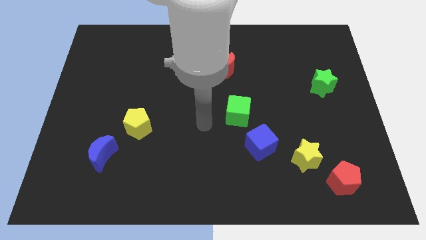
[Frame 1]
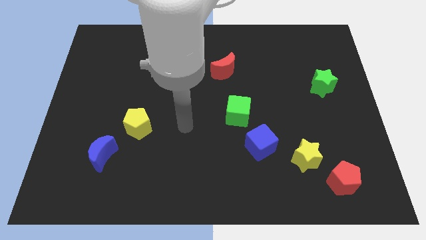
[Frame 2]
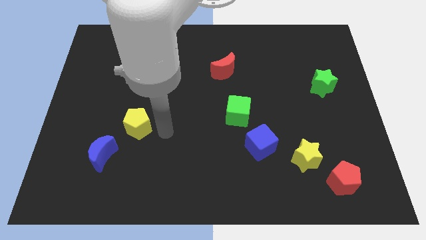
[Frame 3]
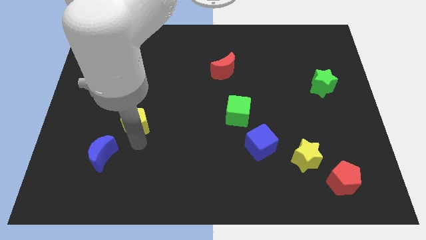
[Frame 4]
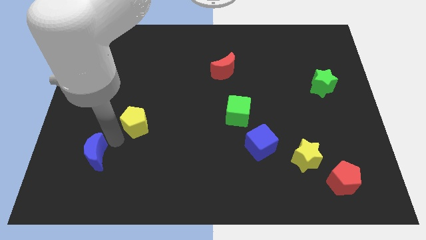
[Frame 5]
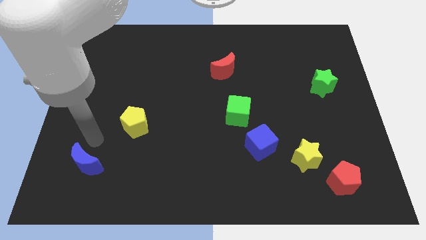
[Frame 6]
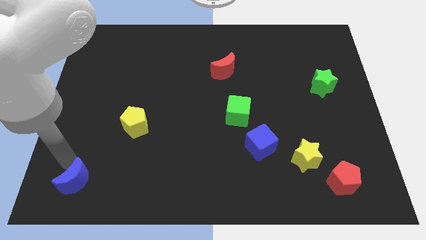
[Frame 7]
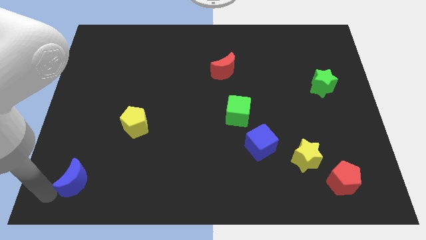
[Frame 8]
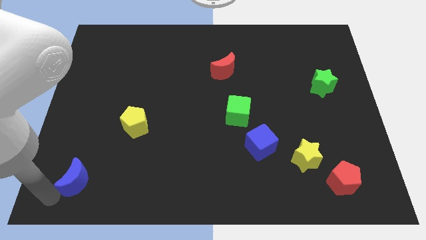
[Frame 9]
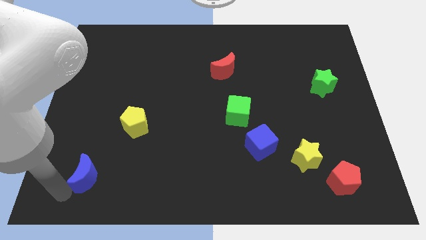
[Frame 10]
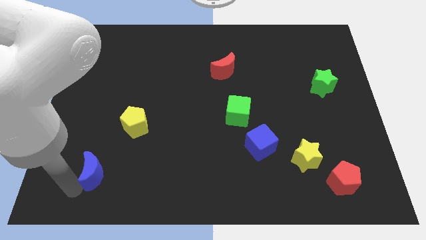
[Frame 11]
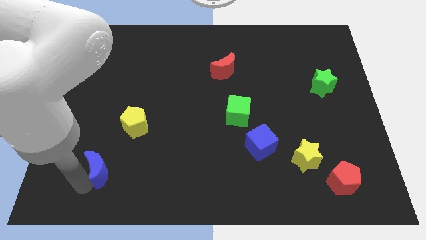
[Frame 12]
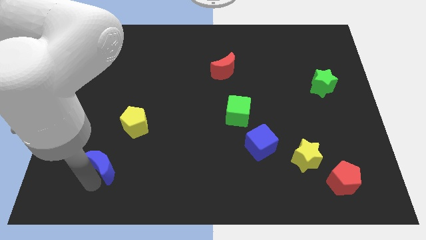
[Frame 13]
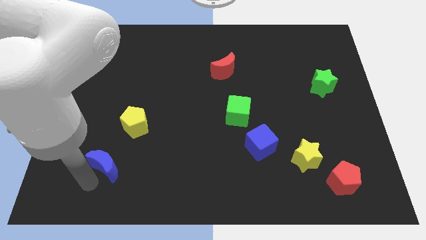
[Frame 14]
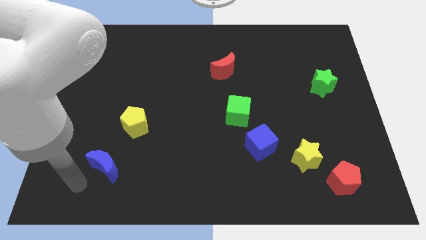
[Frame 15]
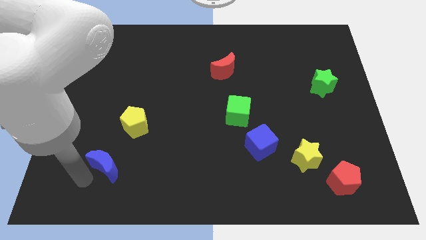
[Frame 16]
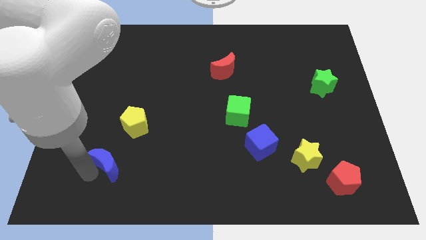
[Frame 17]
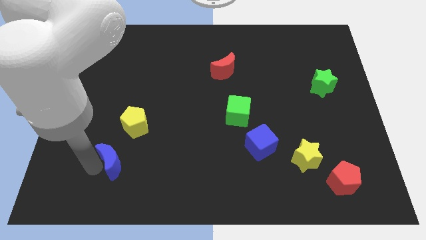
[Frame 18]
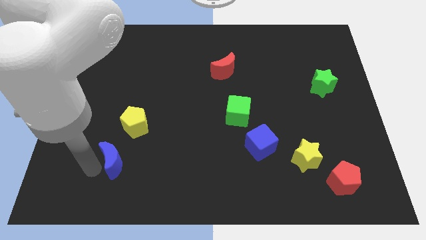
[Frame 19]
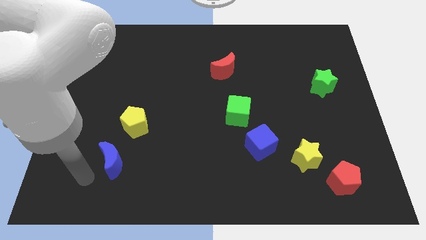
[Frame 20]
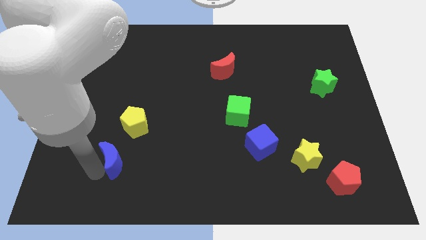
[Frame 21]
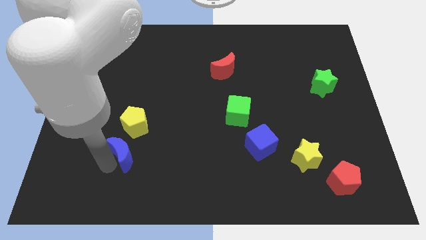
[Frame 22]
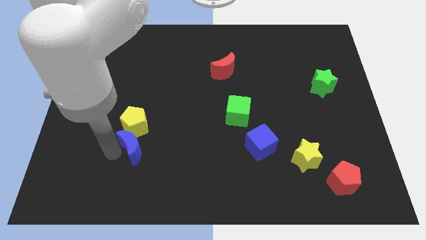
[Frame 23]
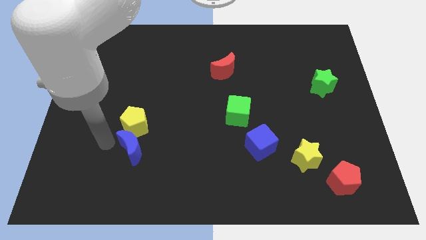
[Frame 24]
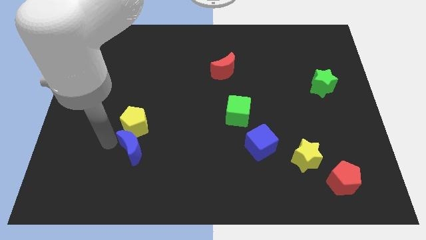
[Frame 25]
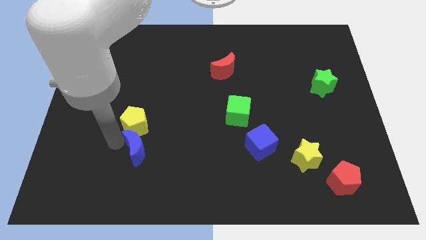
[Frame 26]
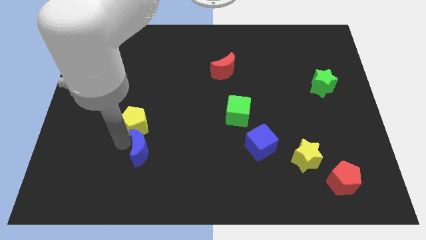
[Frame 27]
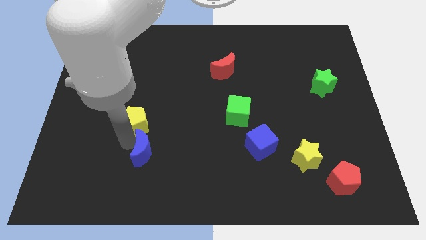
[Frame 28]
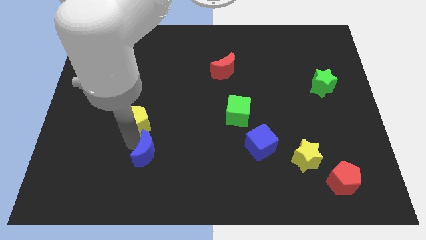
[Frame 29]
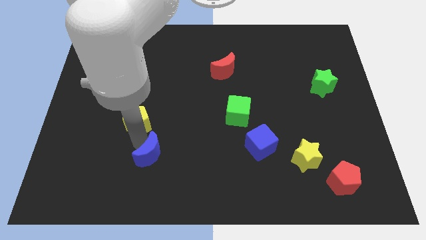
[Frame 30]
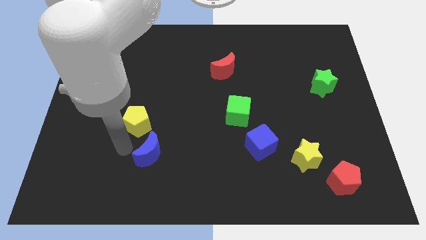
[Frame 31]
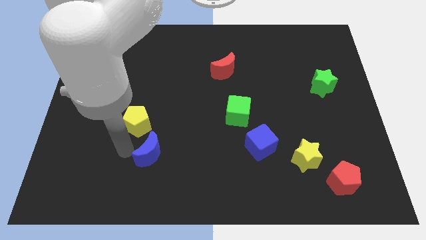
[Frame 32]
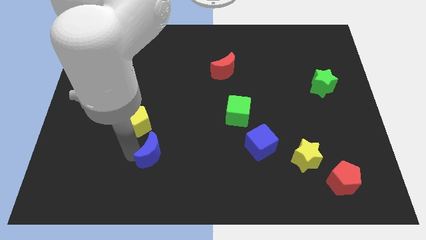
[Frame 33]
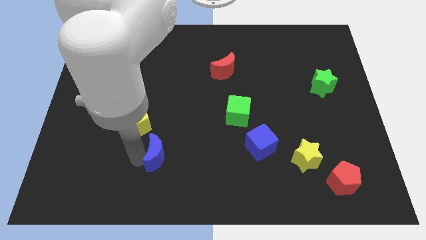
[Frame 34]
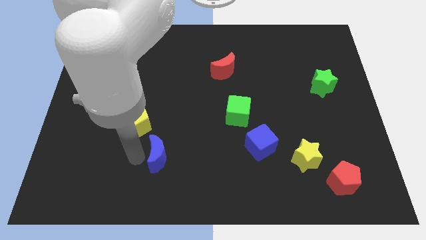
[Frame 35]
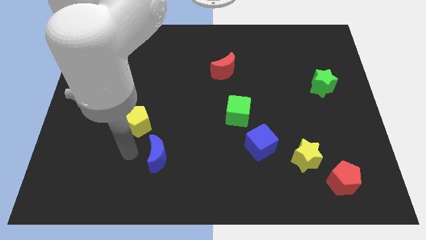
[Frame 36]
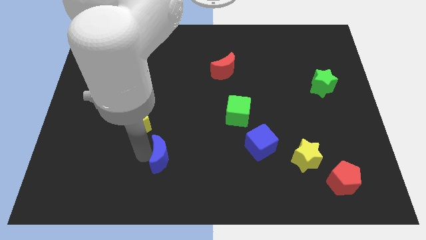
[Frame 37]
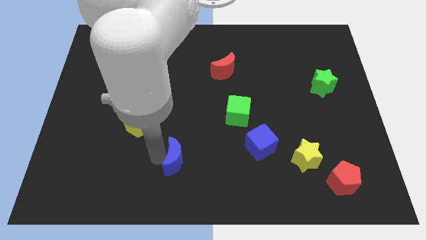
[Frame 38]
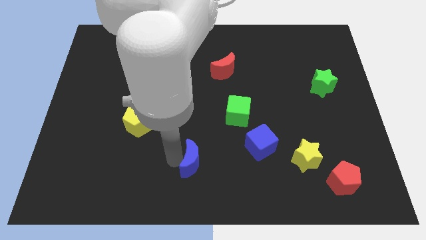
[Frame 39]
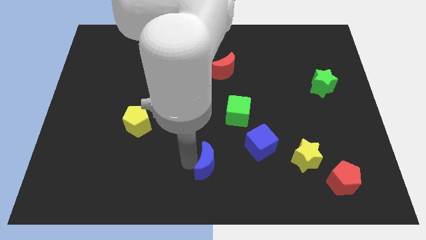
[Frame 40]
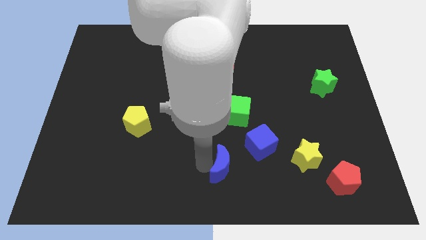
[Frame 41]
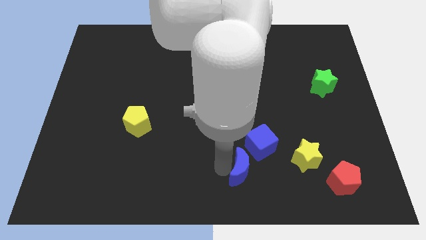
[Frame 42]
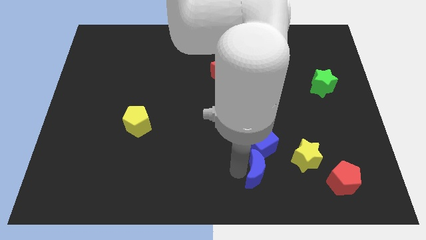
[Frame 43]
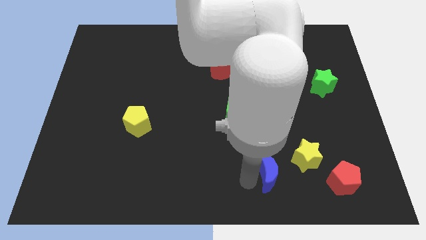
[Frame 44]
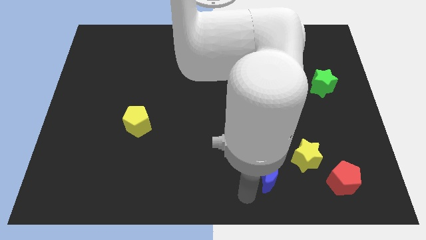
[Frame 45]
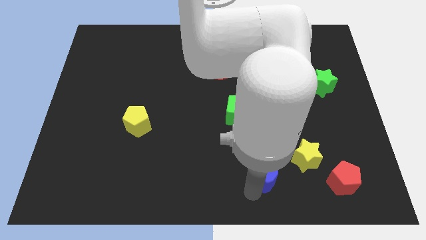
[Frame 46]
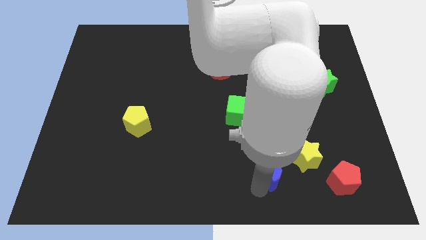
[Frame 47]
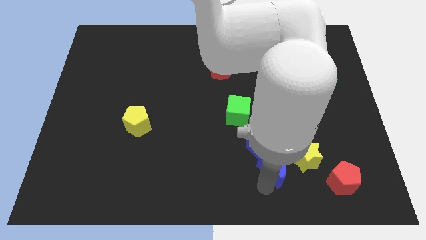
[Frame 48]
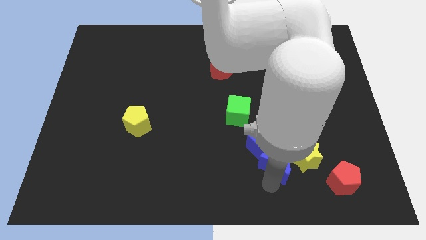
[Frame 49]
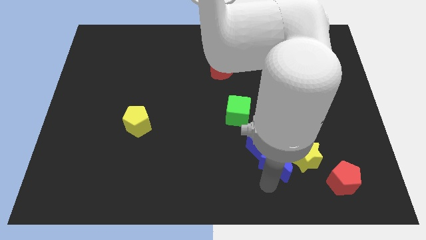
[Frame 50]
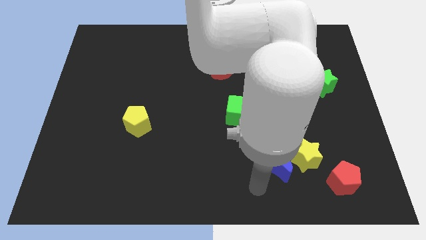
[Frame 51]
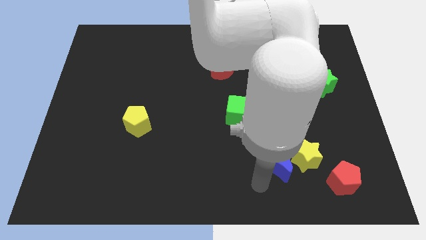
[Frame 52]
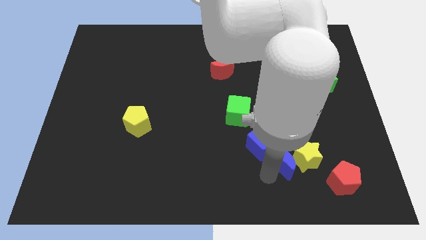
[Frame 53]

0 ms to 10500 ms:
move the blue moon close to the yellow star

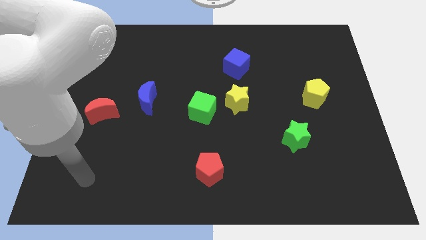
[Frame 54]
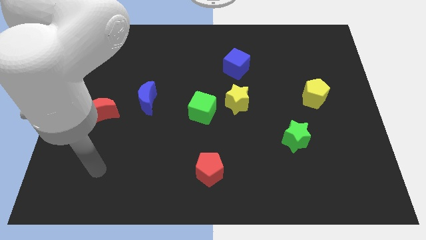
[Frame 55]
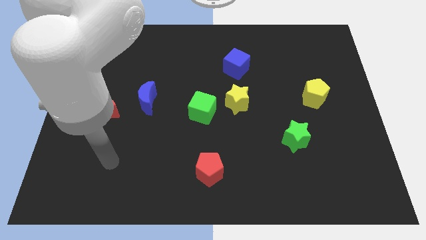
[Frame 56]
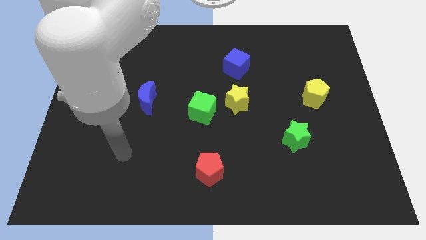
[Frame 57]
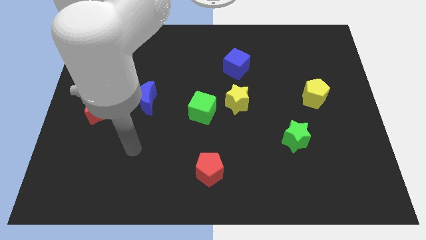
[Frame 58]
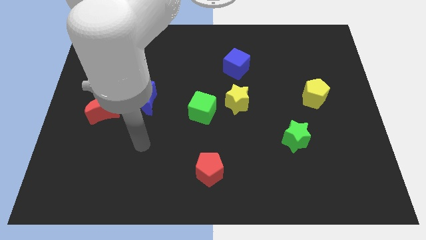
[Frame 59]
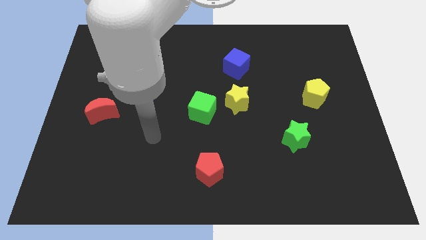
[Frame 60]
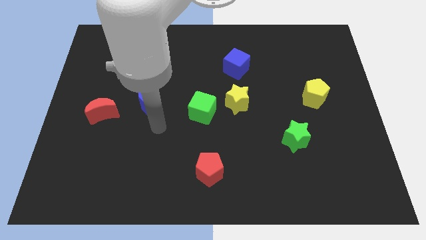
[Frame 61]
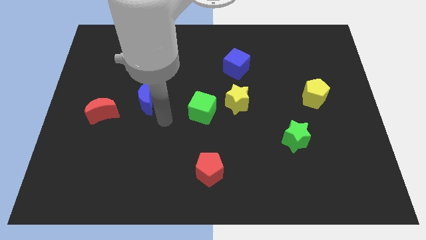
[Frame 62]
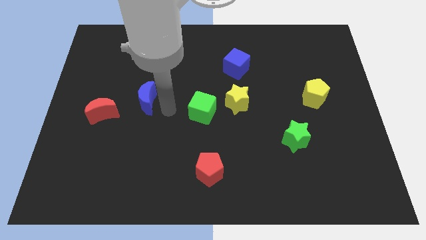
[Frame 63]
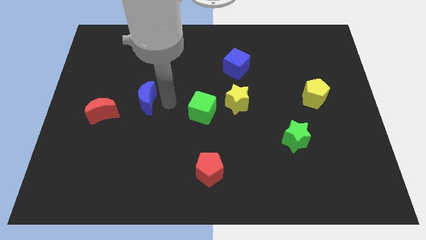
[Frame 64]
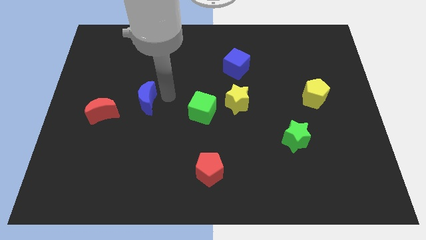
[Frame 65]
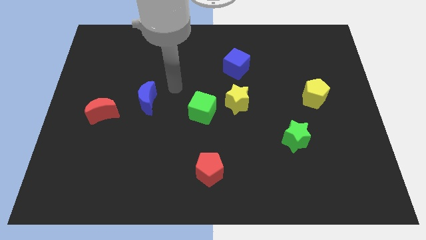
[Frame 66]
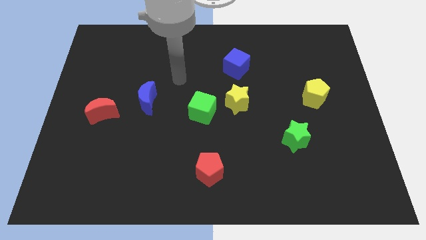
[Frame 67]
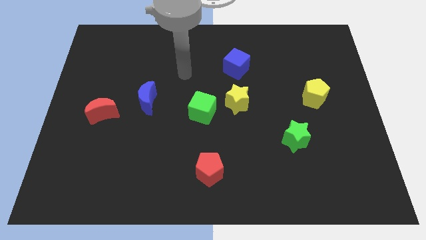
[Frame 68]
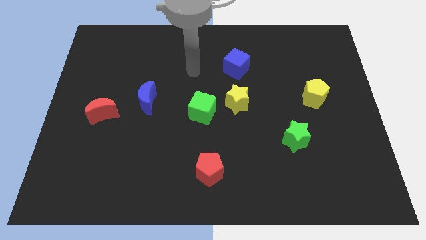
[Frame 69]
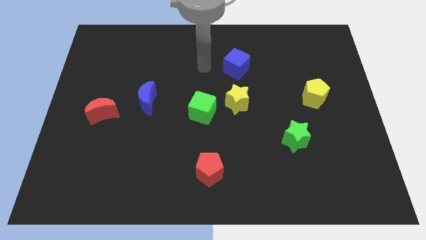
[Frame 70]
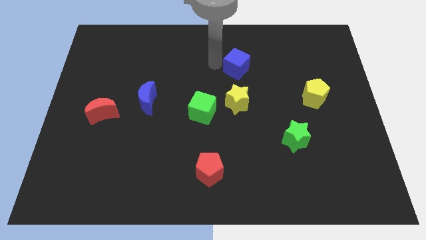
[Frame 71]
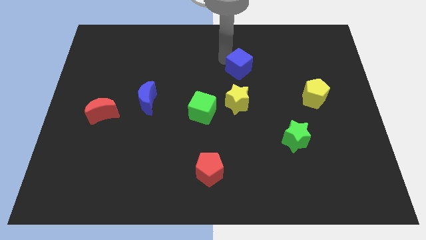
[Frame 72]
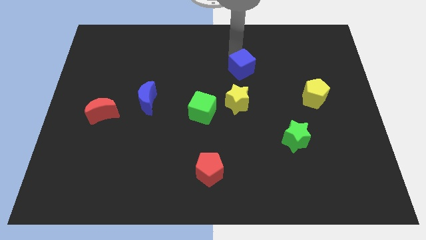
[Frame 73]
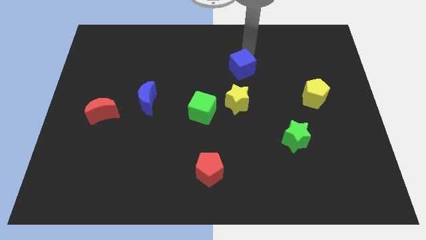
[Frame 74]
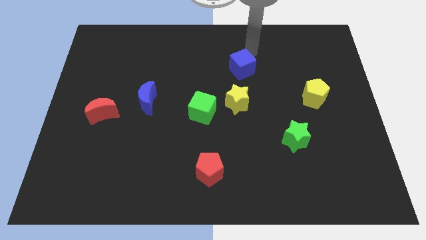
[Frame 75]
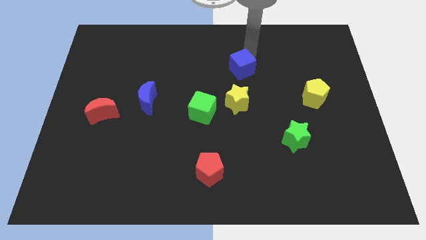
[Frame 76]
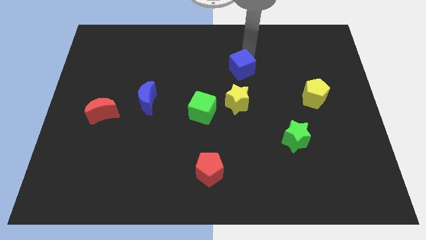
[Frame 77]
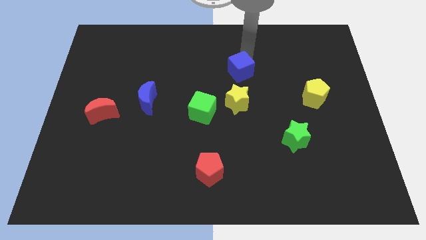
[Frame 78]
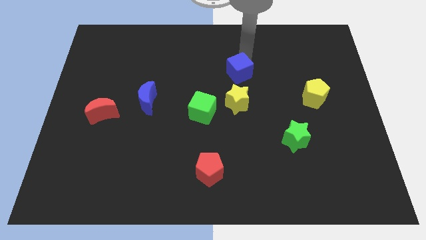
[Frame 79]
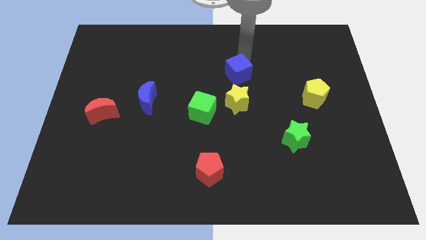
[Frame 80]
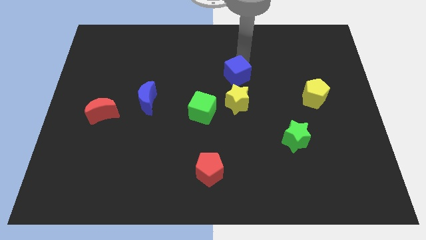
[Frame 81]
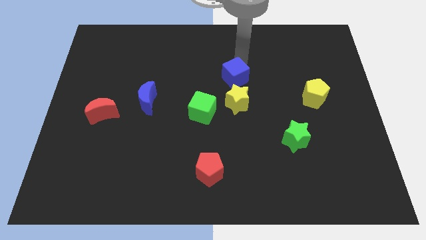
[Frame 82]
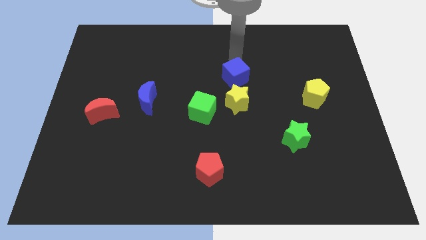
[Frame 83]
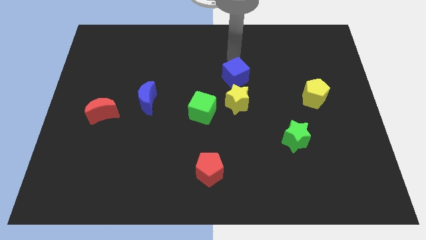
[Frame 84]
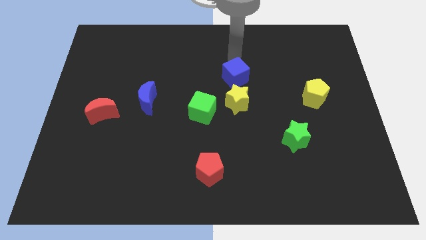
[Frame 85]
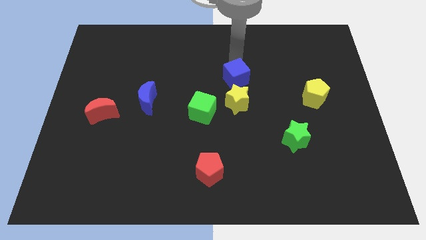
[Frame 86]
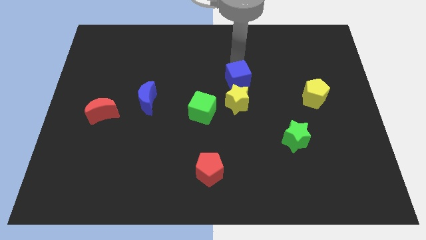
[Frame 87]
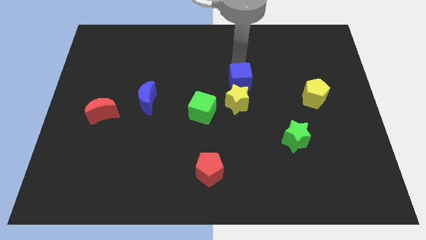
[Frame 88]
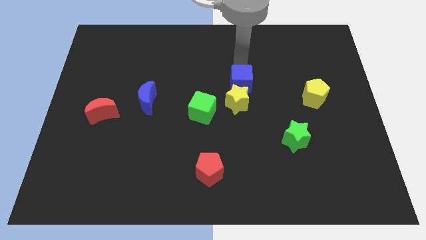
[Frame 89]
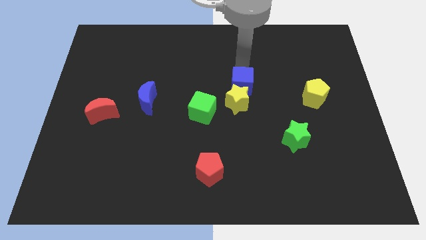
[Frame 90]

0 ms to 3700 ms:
push the blue cube next to the yellow star
